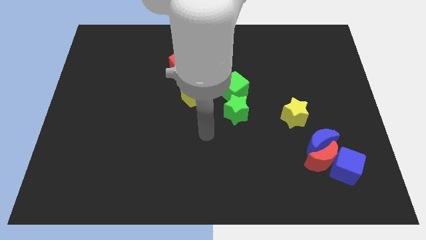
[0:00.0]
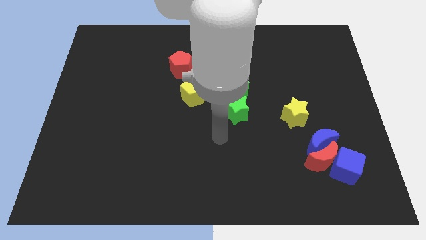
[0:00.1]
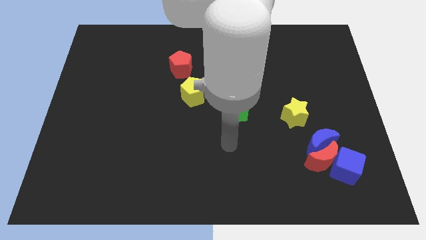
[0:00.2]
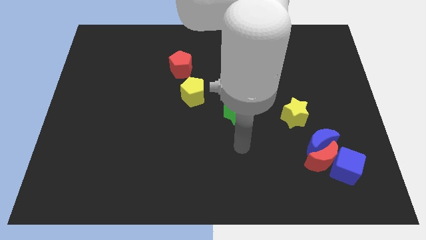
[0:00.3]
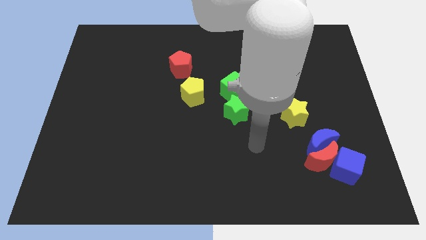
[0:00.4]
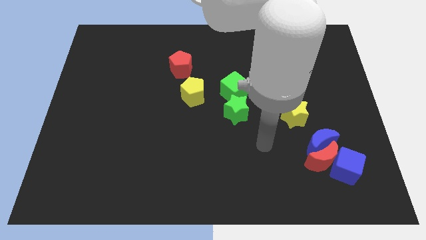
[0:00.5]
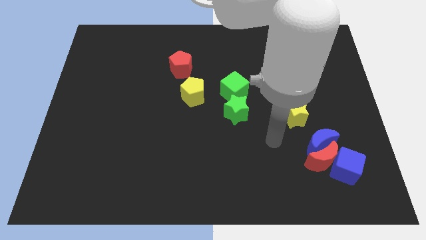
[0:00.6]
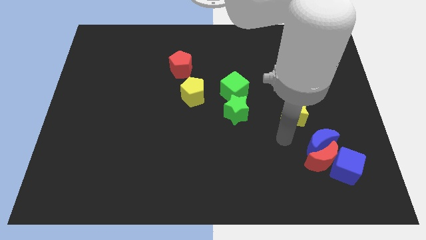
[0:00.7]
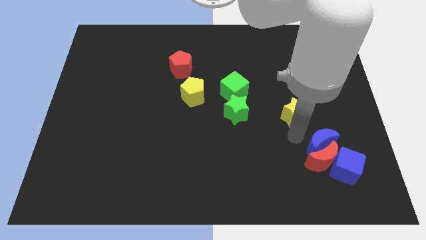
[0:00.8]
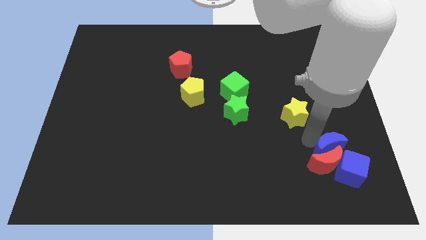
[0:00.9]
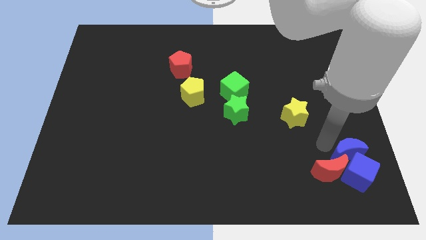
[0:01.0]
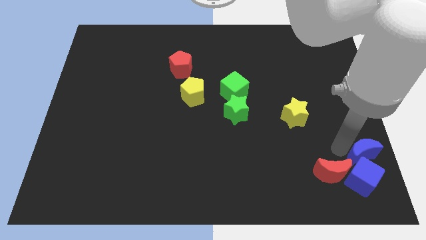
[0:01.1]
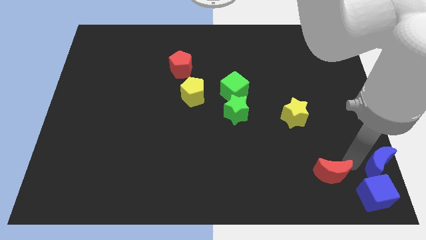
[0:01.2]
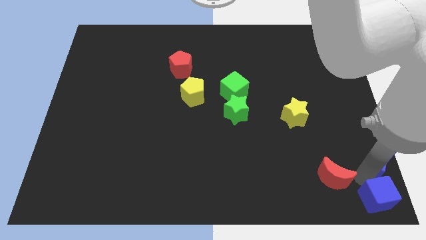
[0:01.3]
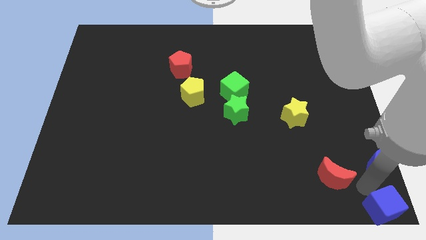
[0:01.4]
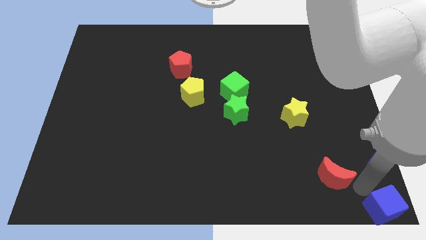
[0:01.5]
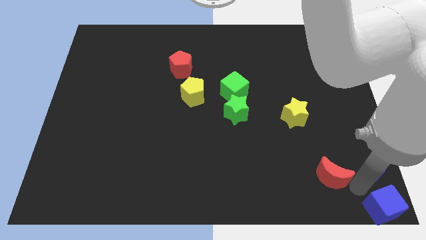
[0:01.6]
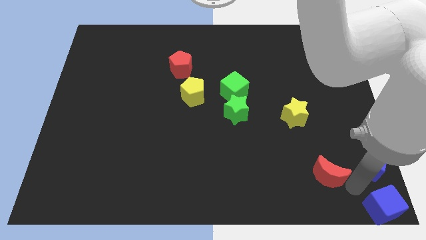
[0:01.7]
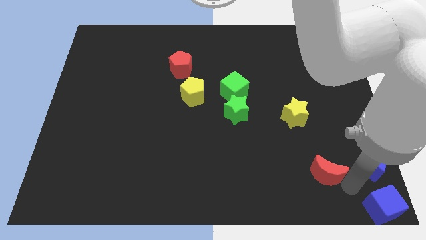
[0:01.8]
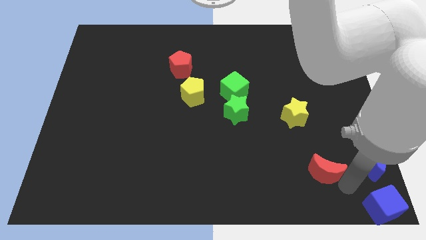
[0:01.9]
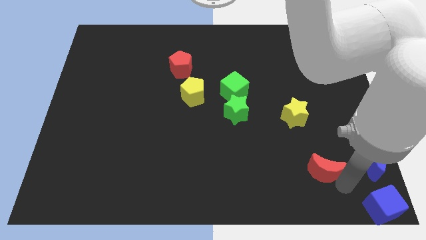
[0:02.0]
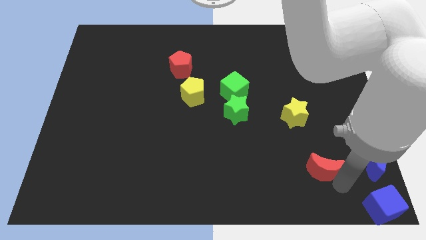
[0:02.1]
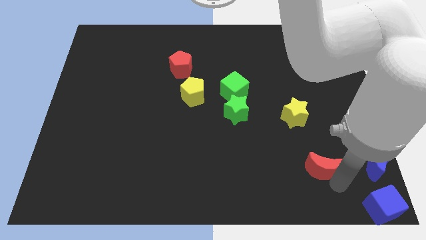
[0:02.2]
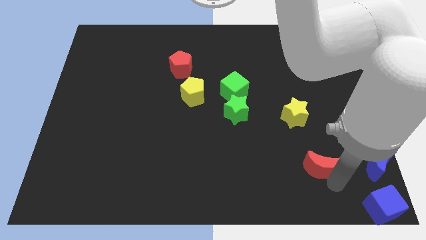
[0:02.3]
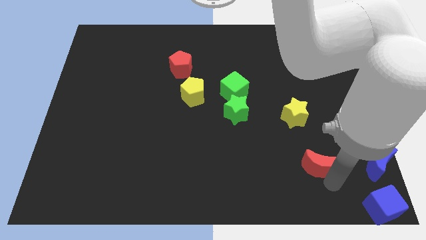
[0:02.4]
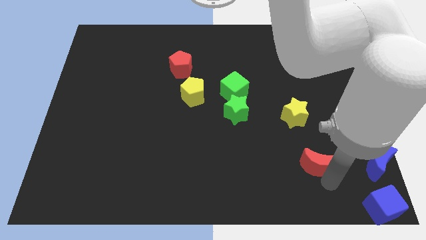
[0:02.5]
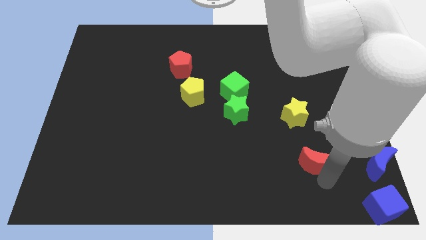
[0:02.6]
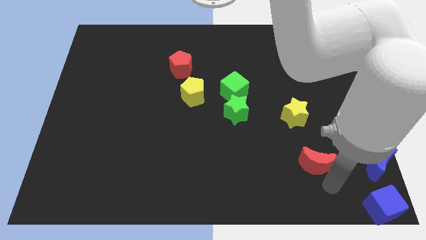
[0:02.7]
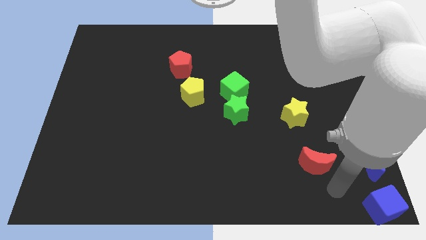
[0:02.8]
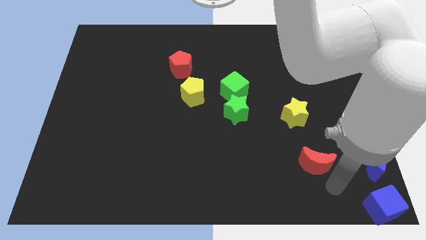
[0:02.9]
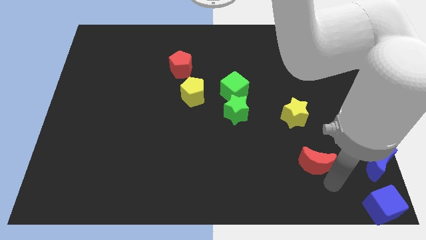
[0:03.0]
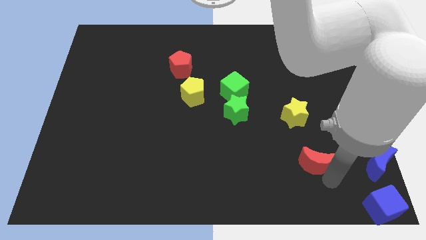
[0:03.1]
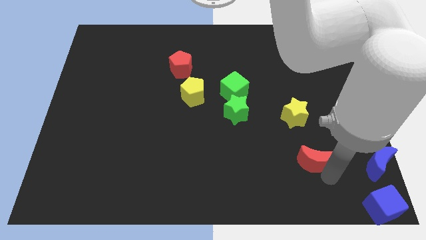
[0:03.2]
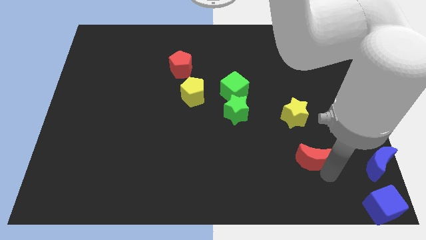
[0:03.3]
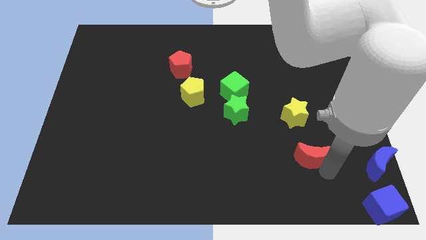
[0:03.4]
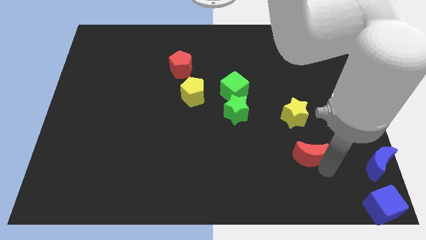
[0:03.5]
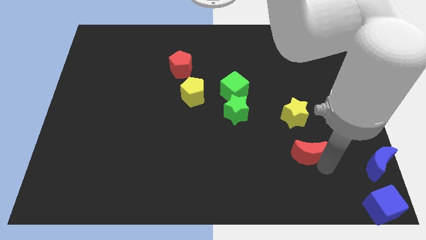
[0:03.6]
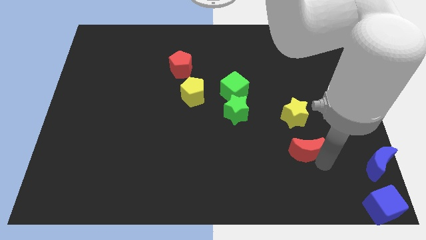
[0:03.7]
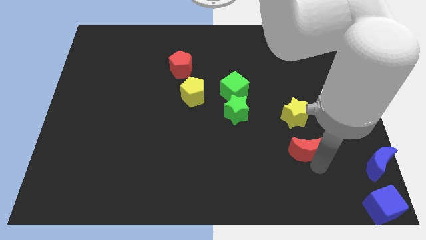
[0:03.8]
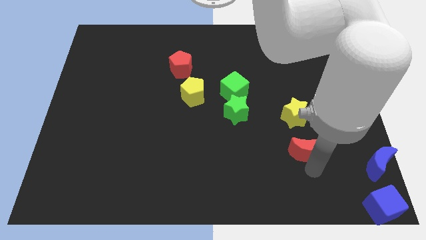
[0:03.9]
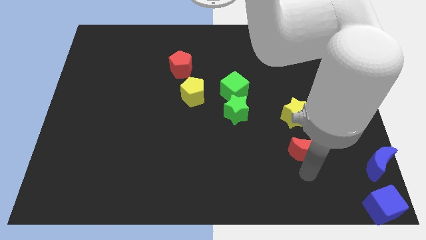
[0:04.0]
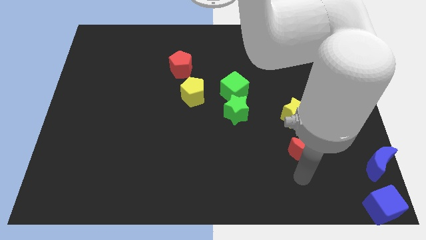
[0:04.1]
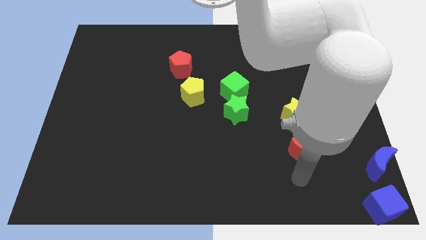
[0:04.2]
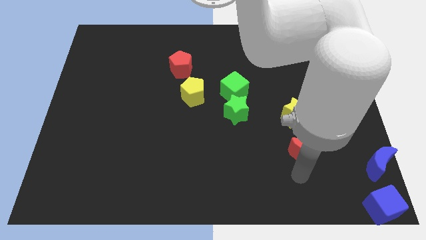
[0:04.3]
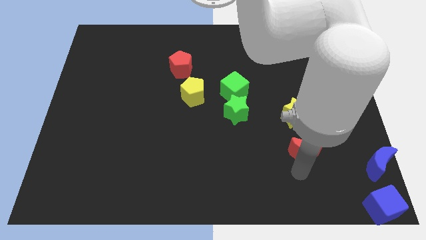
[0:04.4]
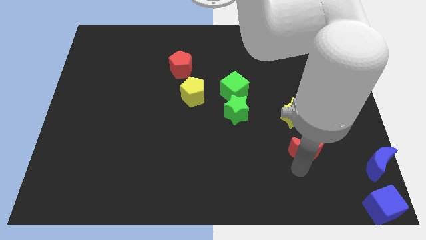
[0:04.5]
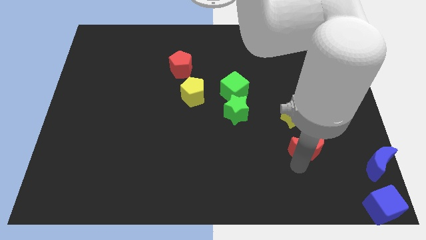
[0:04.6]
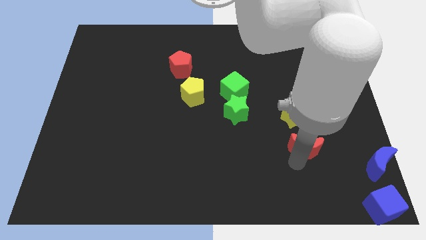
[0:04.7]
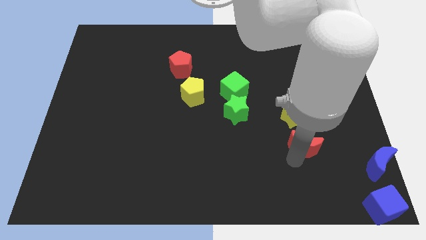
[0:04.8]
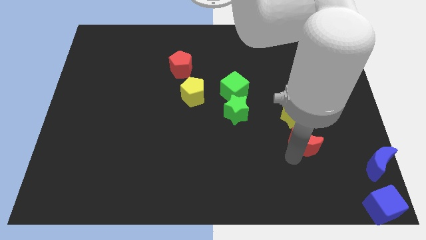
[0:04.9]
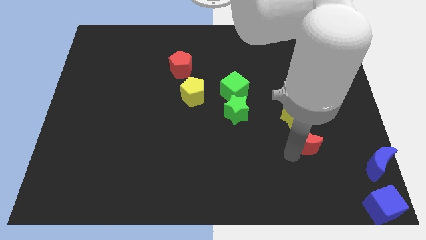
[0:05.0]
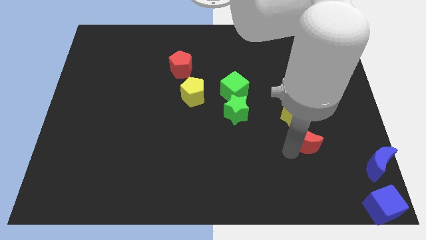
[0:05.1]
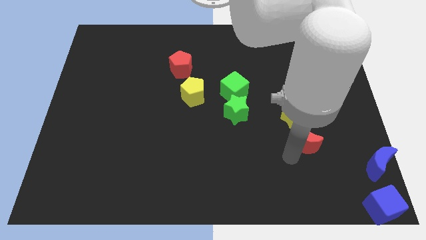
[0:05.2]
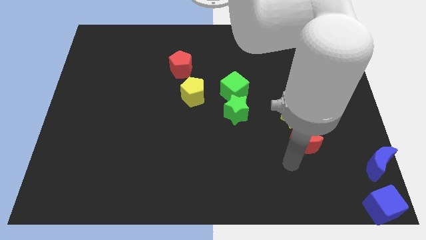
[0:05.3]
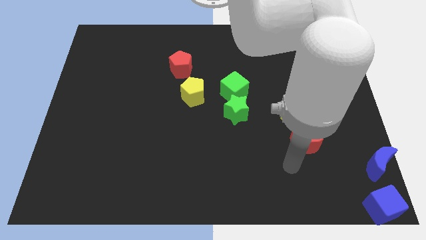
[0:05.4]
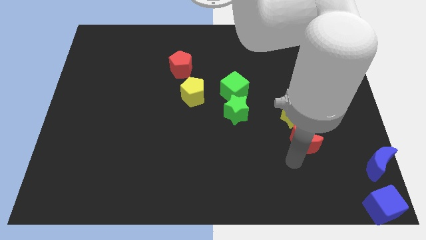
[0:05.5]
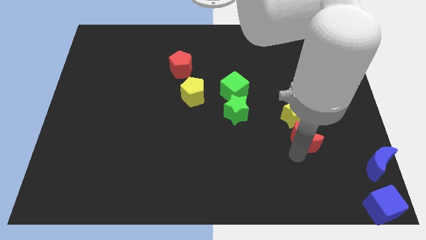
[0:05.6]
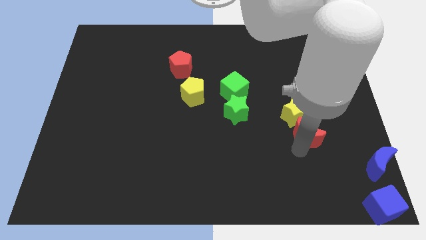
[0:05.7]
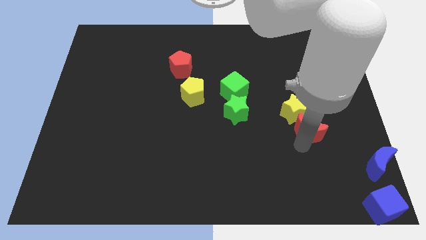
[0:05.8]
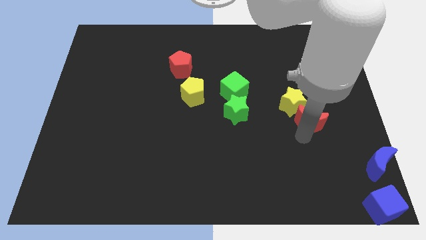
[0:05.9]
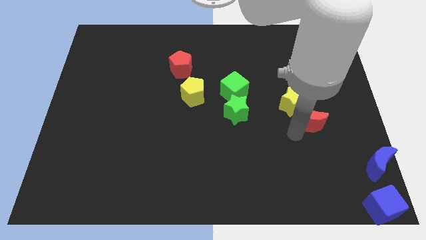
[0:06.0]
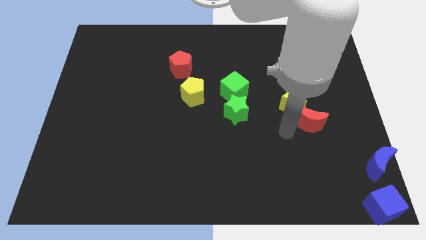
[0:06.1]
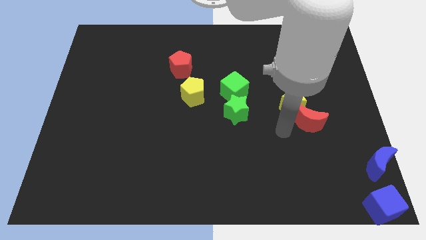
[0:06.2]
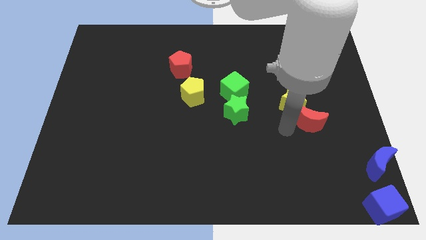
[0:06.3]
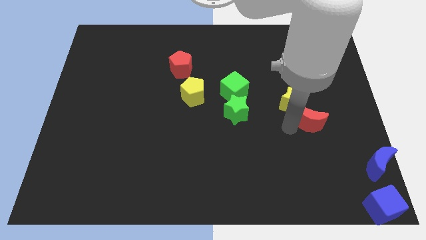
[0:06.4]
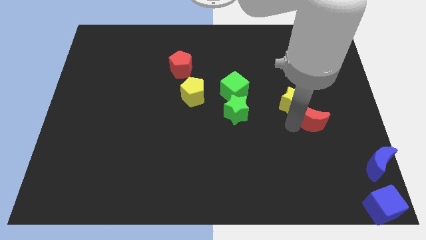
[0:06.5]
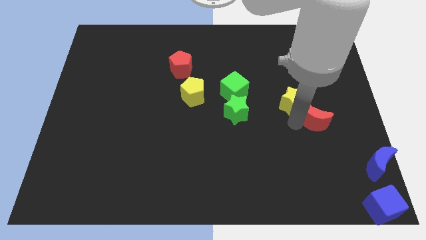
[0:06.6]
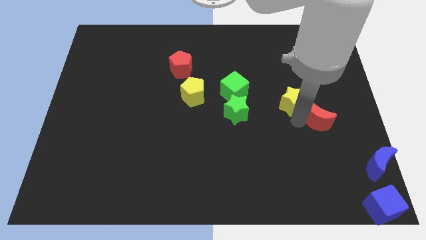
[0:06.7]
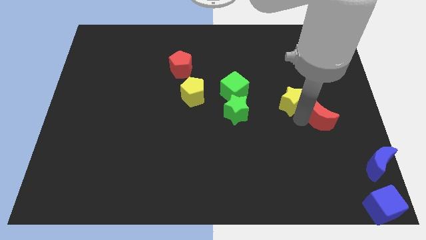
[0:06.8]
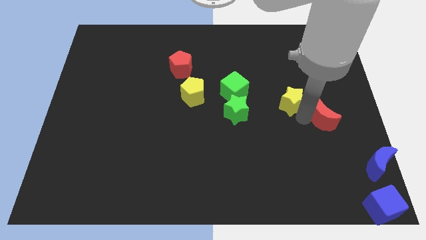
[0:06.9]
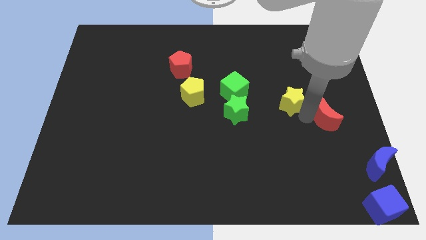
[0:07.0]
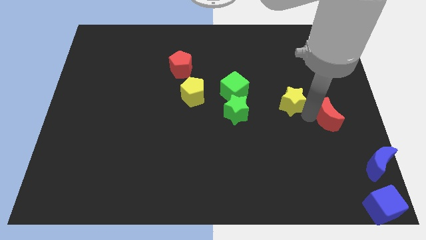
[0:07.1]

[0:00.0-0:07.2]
slide the red moon to the right side

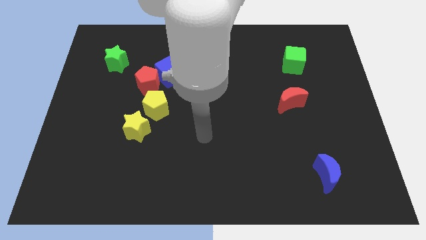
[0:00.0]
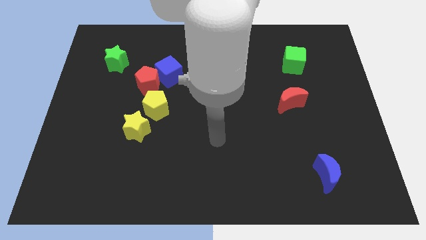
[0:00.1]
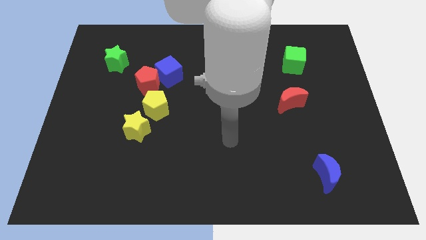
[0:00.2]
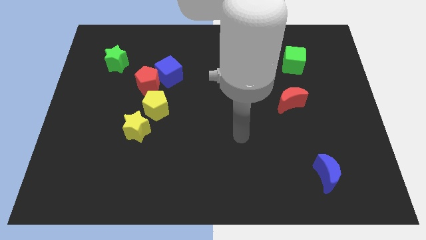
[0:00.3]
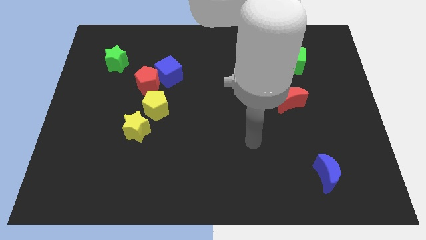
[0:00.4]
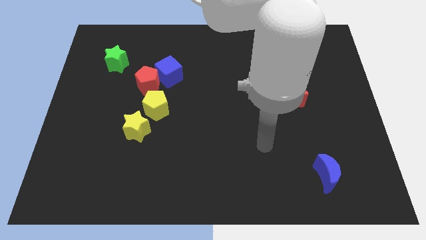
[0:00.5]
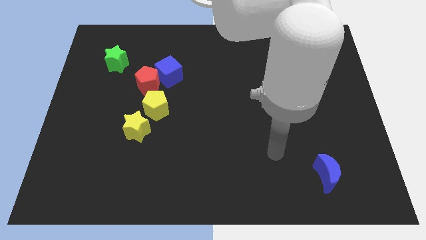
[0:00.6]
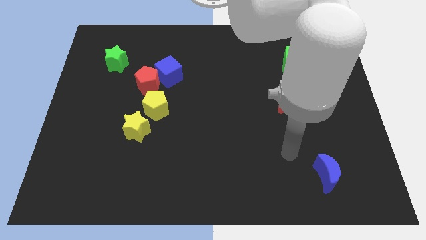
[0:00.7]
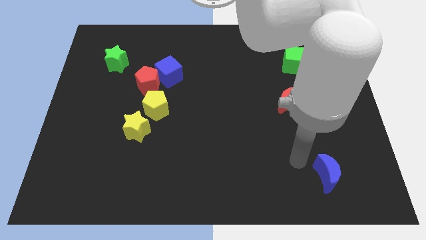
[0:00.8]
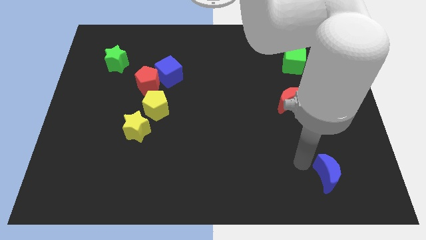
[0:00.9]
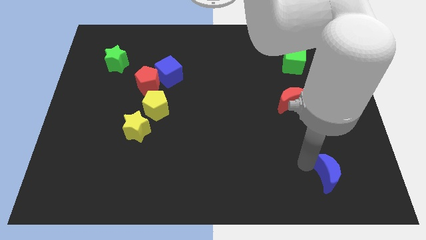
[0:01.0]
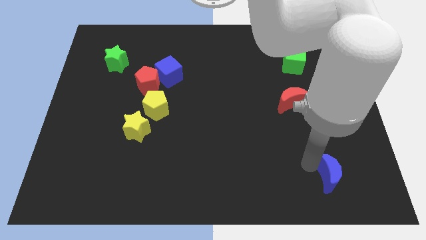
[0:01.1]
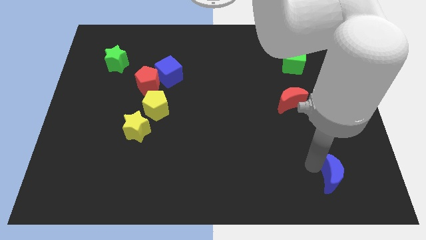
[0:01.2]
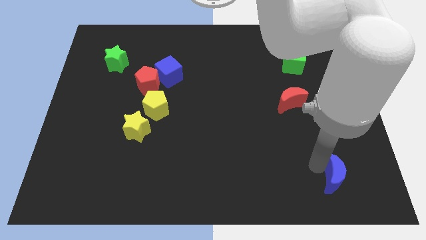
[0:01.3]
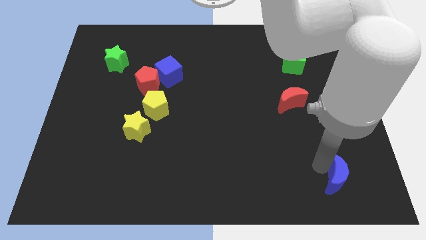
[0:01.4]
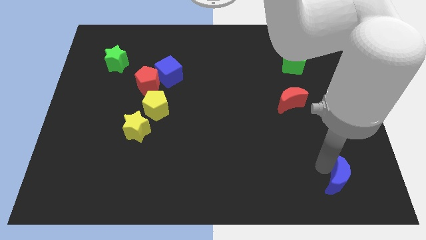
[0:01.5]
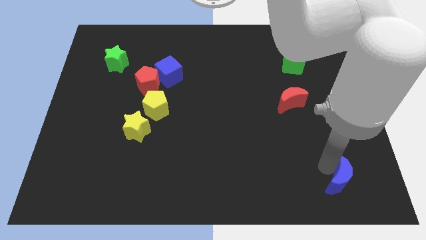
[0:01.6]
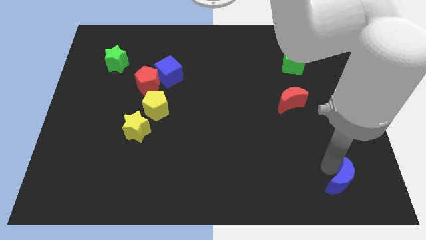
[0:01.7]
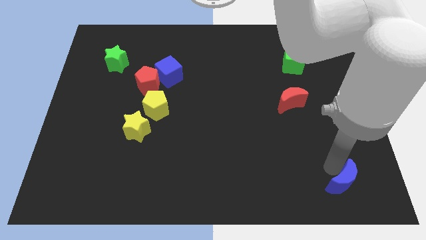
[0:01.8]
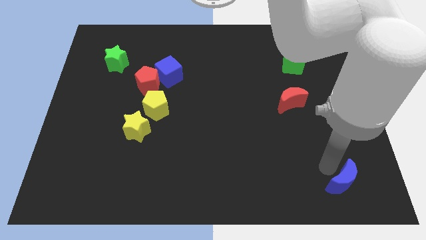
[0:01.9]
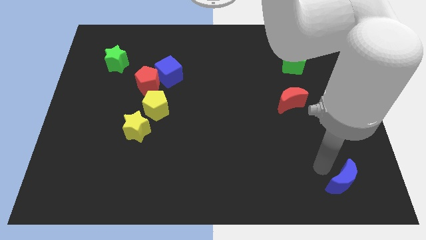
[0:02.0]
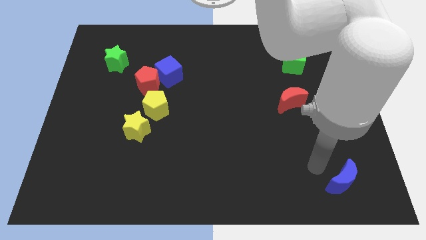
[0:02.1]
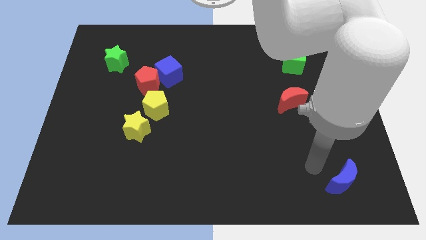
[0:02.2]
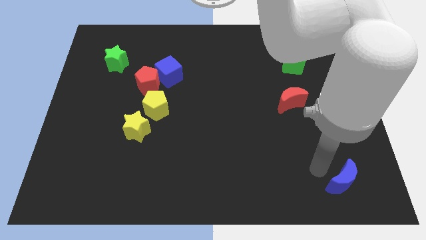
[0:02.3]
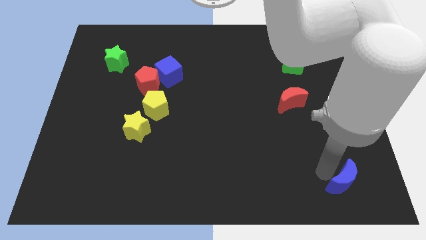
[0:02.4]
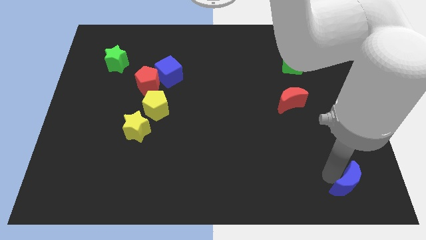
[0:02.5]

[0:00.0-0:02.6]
slide the blue moon to the lower right corner
